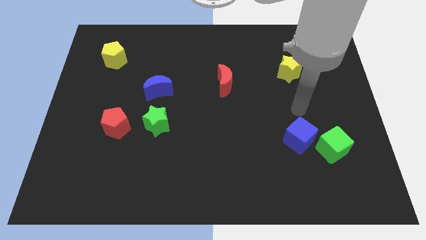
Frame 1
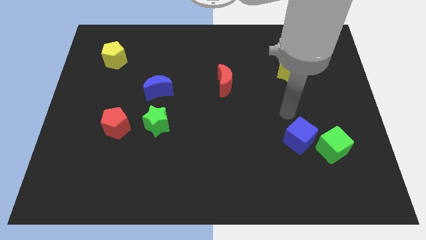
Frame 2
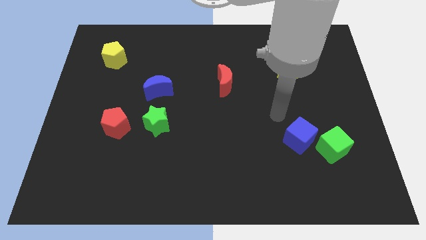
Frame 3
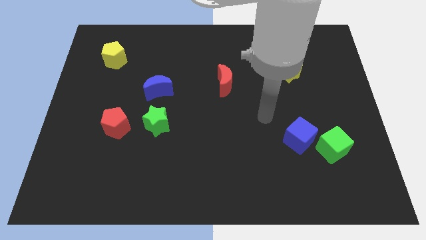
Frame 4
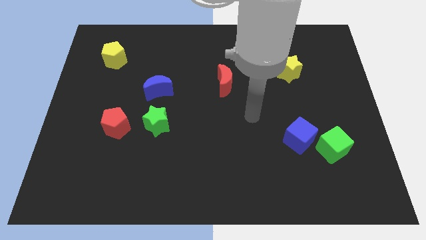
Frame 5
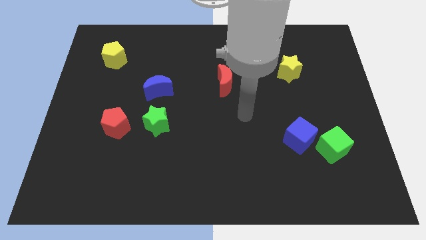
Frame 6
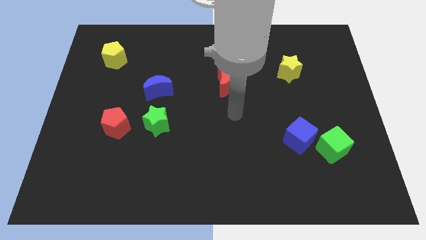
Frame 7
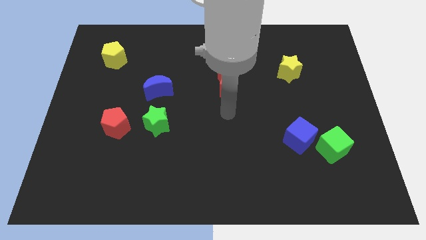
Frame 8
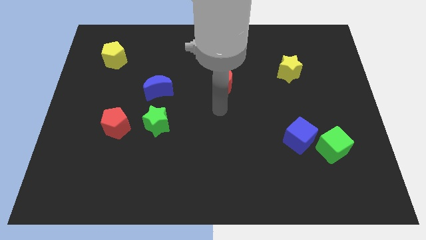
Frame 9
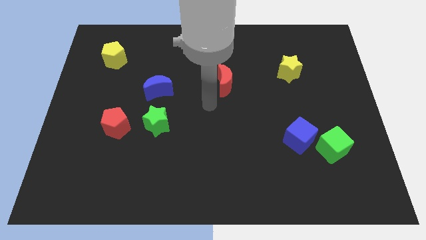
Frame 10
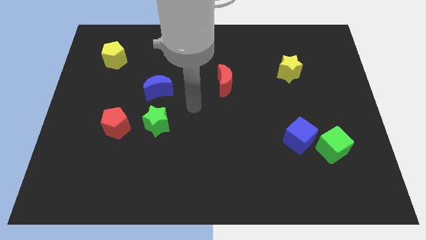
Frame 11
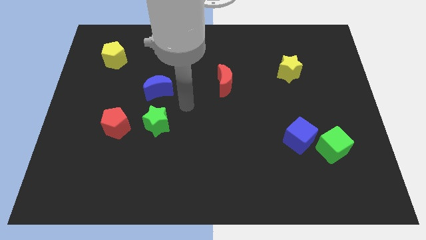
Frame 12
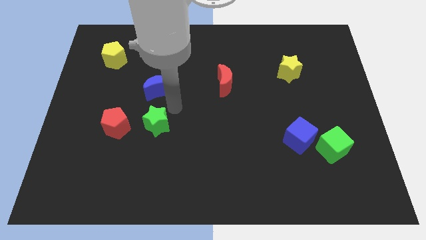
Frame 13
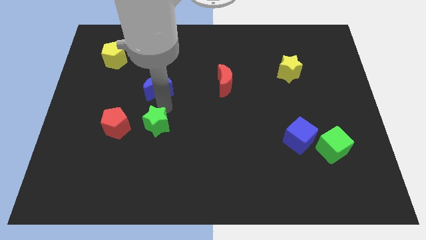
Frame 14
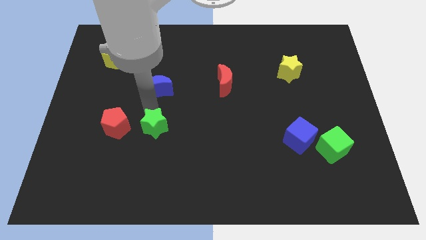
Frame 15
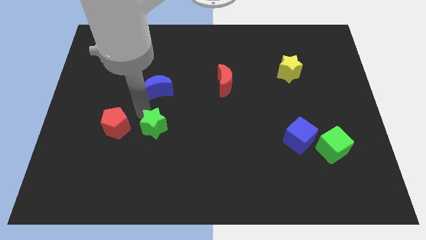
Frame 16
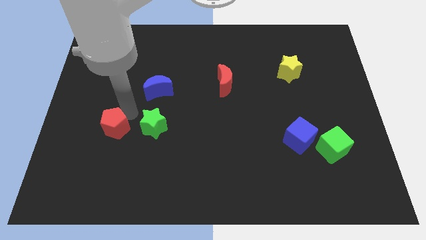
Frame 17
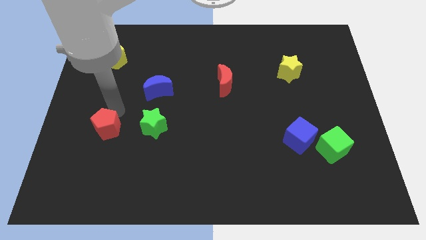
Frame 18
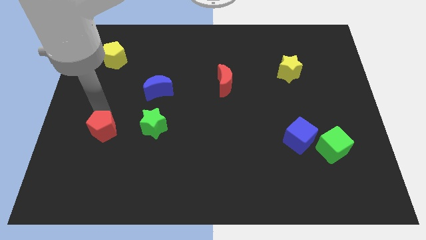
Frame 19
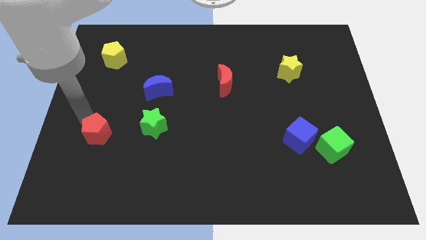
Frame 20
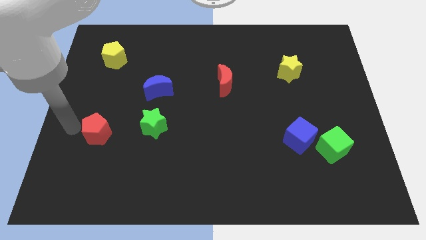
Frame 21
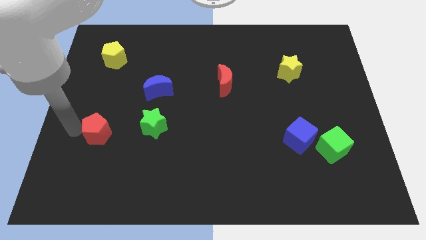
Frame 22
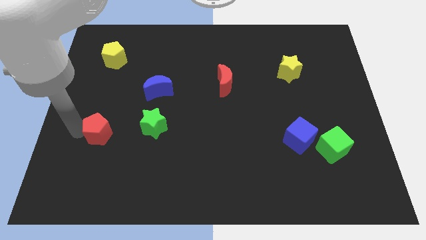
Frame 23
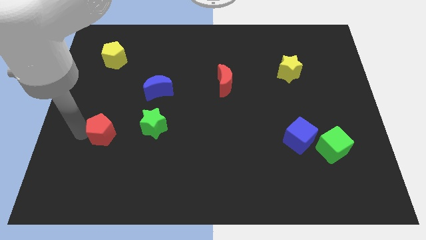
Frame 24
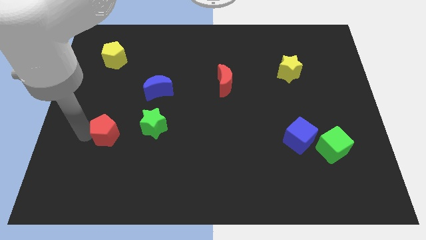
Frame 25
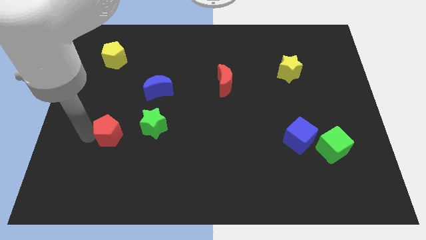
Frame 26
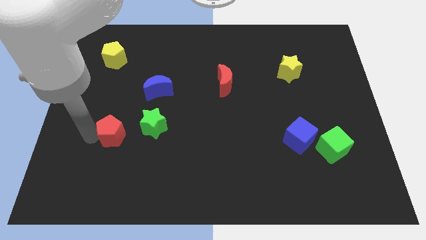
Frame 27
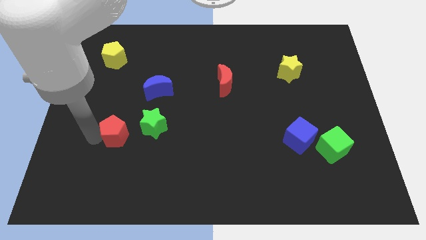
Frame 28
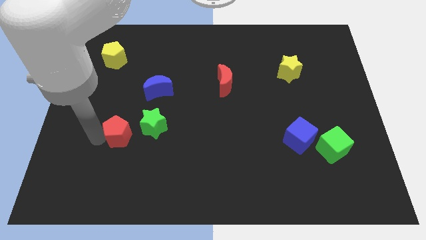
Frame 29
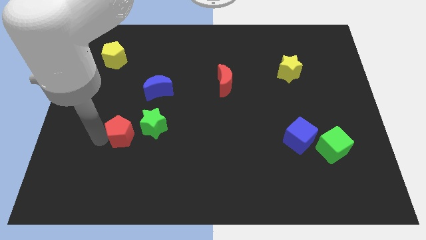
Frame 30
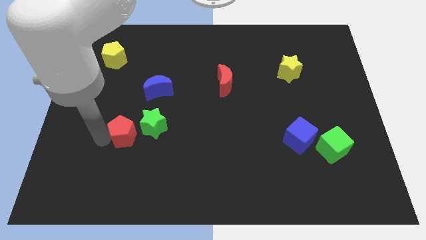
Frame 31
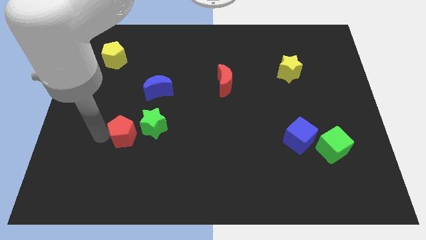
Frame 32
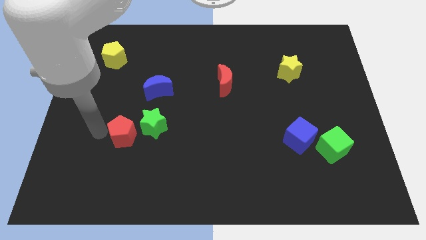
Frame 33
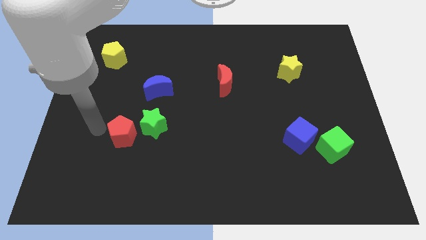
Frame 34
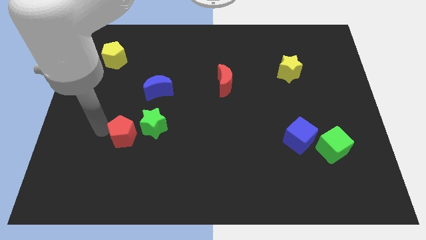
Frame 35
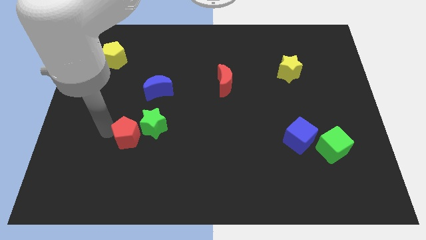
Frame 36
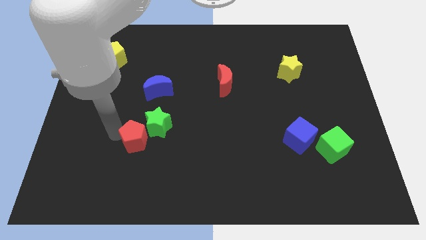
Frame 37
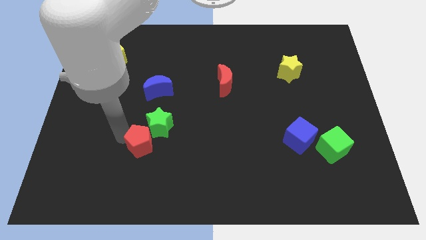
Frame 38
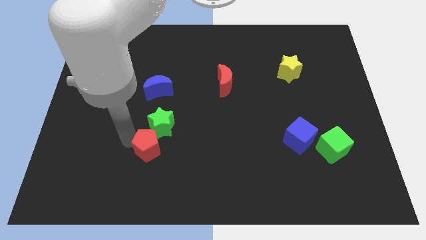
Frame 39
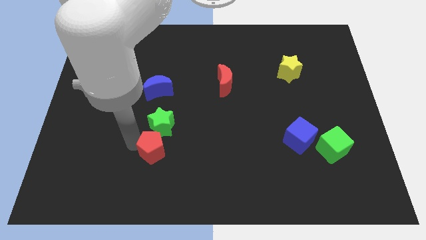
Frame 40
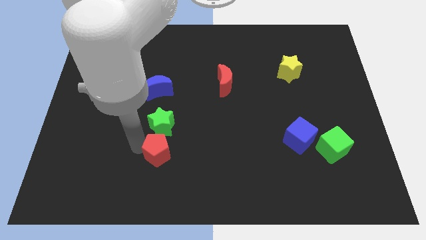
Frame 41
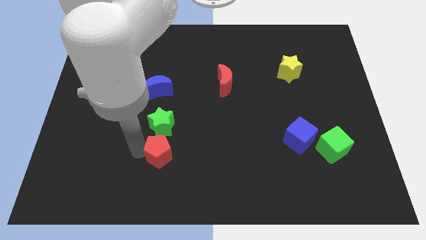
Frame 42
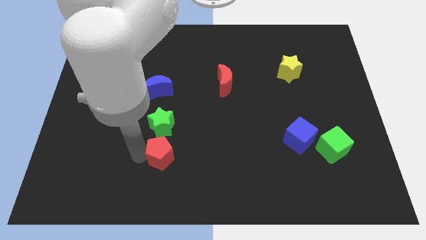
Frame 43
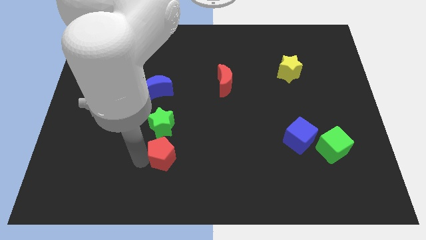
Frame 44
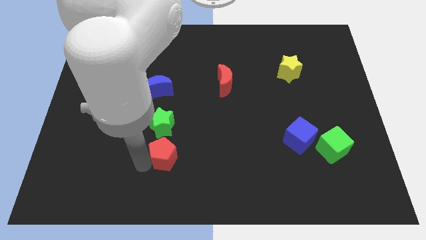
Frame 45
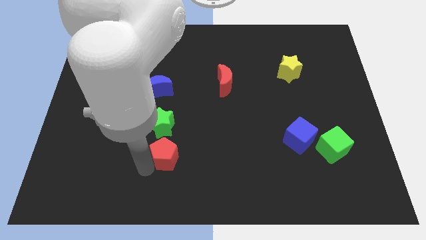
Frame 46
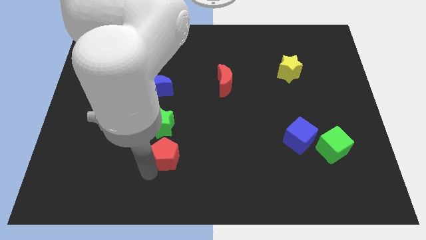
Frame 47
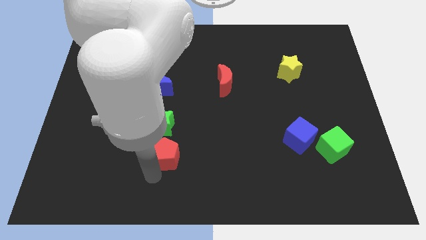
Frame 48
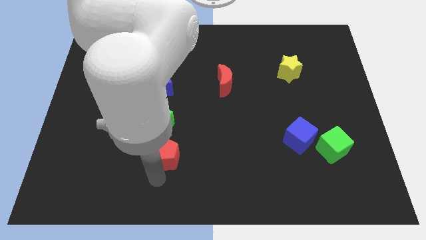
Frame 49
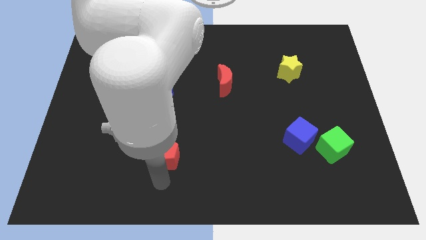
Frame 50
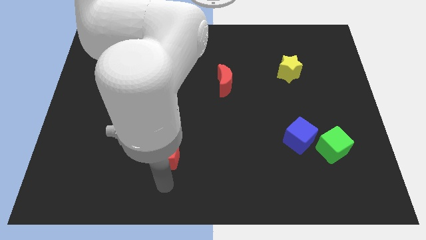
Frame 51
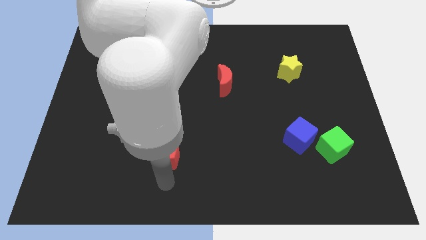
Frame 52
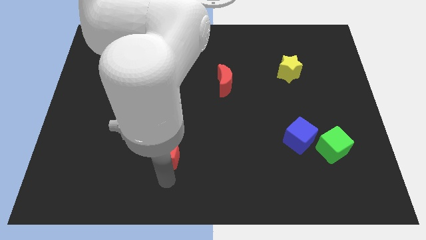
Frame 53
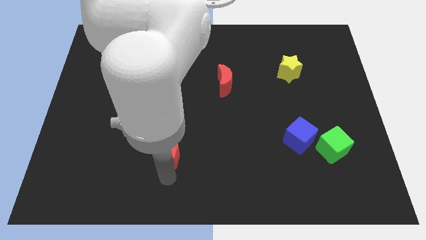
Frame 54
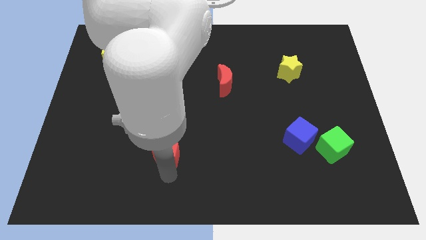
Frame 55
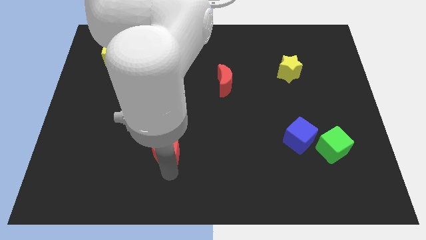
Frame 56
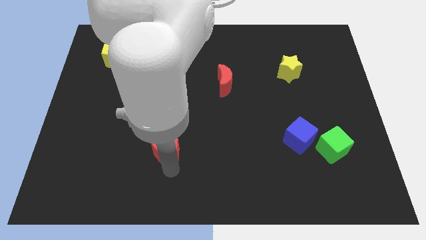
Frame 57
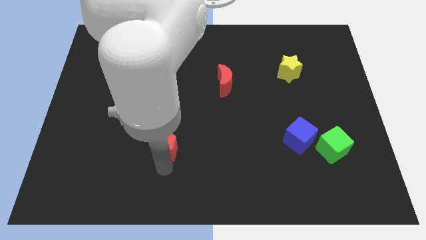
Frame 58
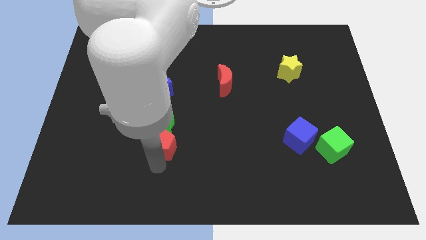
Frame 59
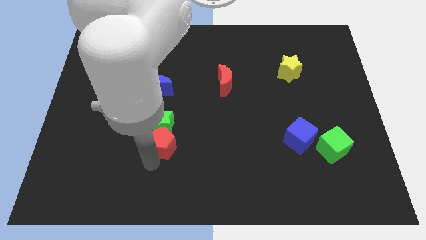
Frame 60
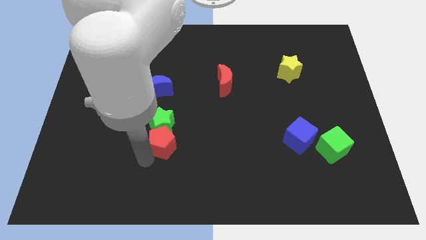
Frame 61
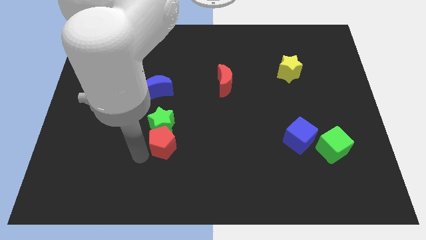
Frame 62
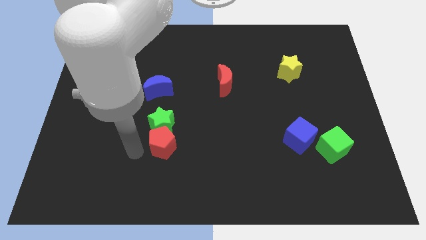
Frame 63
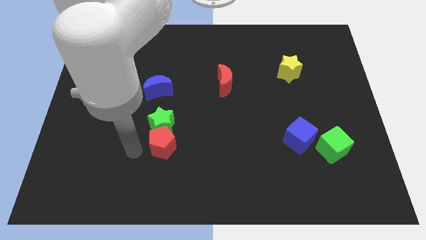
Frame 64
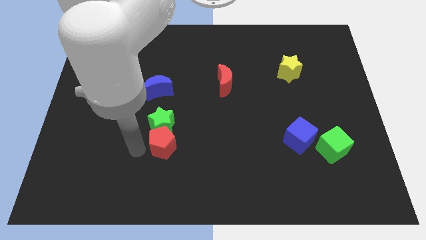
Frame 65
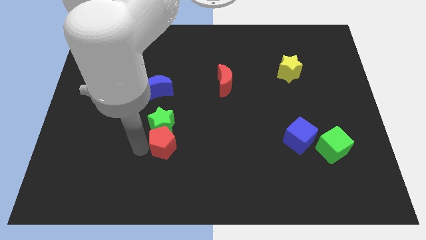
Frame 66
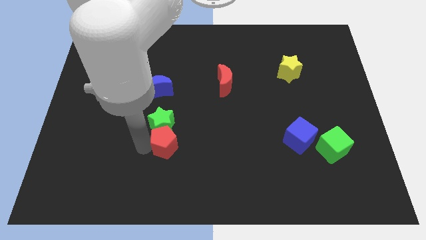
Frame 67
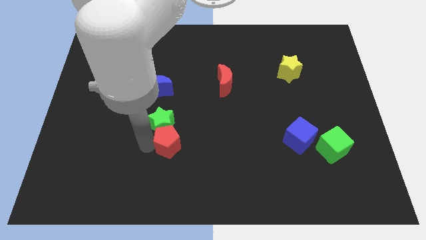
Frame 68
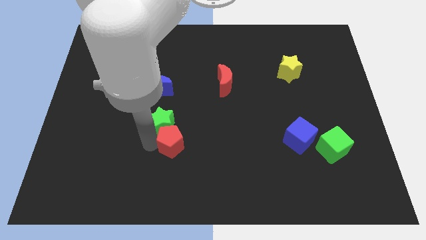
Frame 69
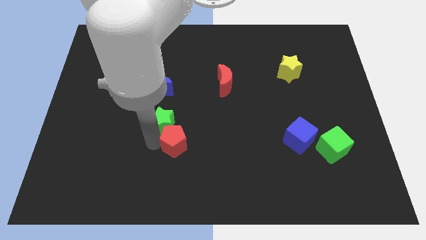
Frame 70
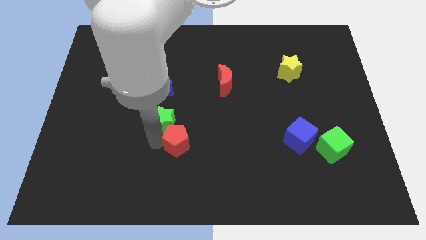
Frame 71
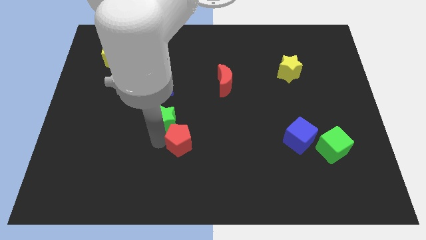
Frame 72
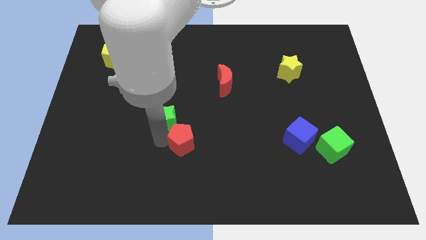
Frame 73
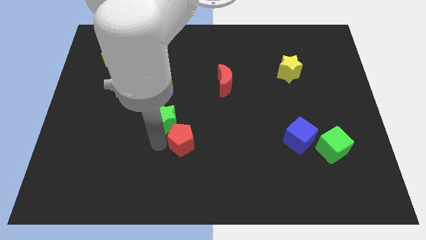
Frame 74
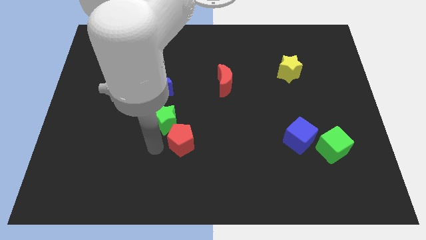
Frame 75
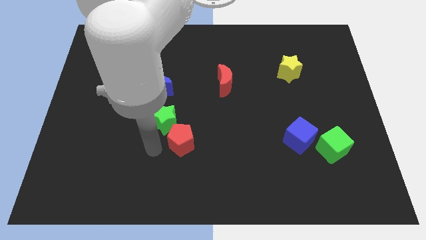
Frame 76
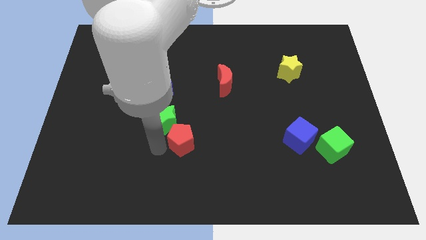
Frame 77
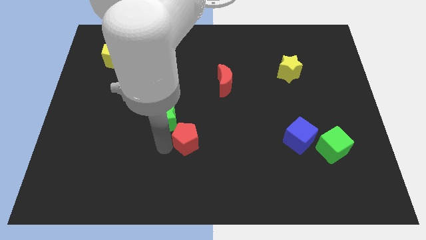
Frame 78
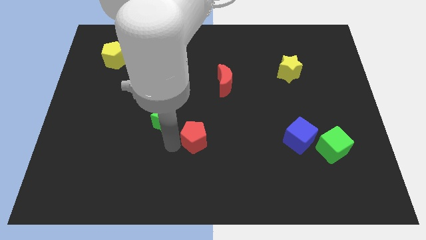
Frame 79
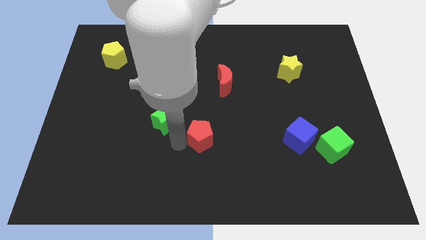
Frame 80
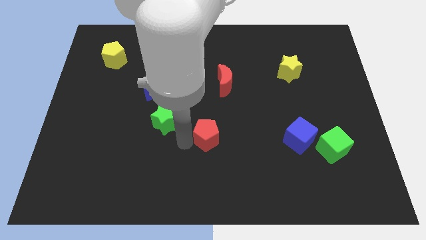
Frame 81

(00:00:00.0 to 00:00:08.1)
push the red pentagon right

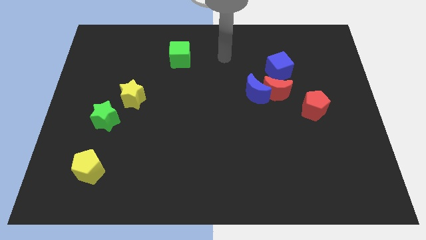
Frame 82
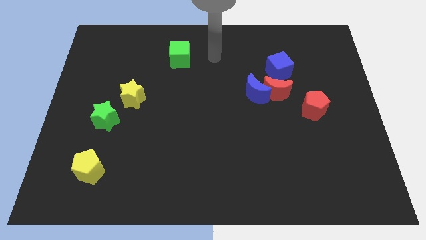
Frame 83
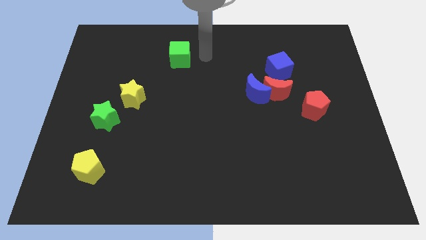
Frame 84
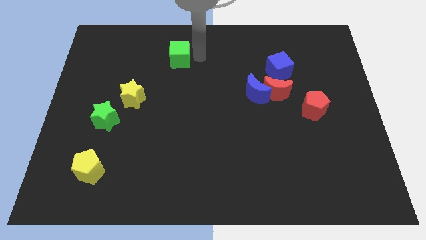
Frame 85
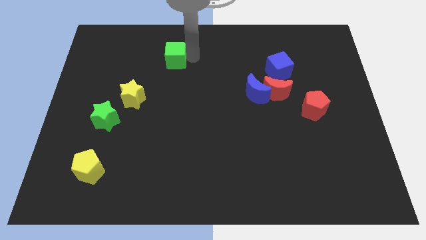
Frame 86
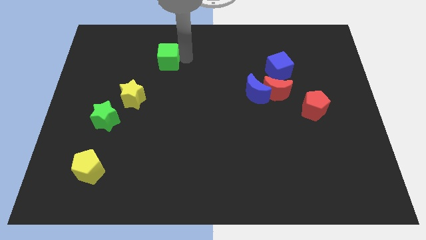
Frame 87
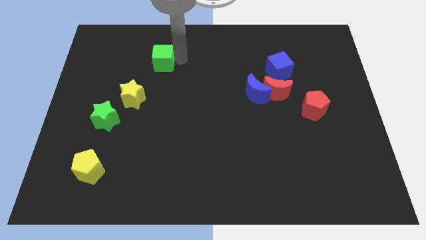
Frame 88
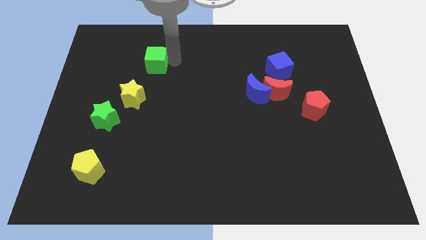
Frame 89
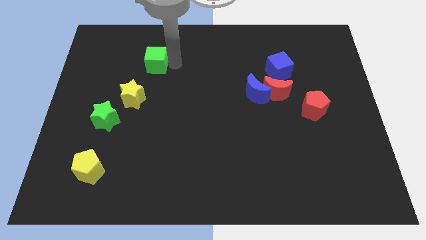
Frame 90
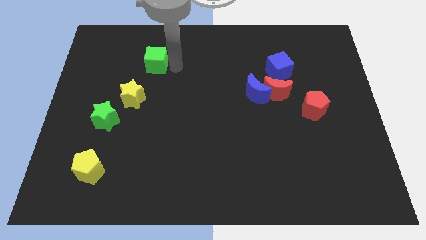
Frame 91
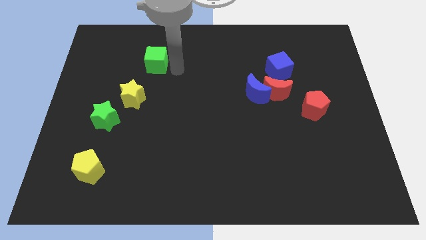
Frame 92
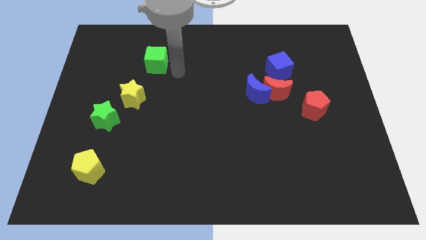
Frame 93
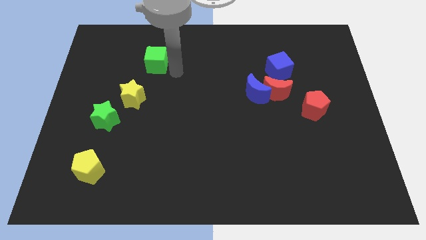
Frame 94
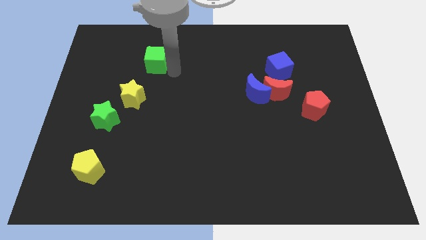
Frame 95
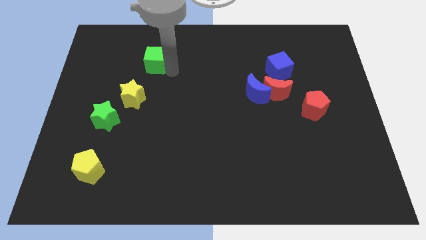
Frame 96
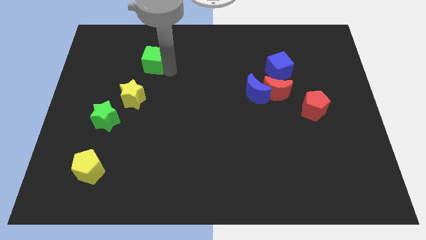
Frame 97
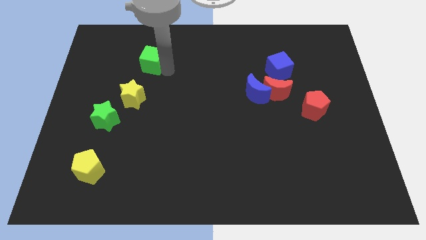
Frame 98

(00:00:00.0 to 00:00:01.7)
push the green cube to the left a little bit
